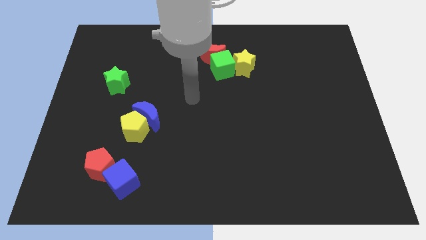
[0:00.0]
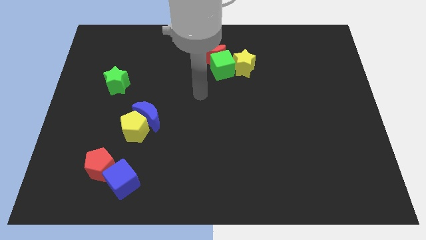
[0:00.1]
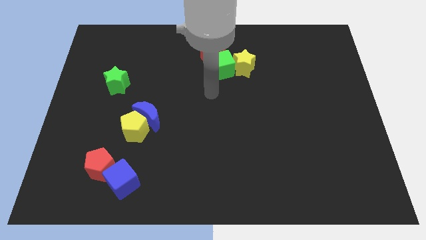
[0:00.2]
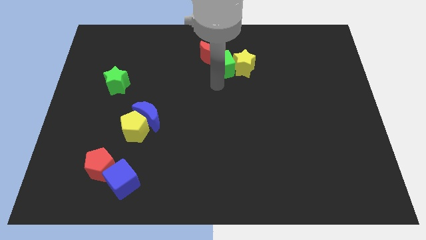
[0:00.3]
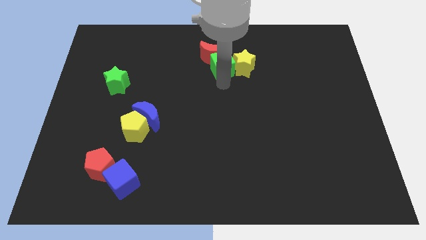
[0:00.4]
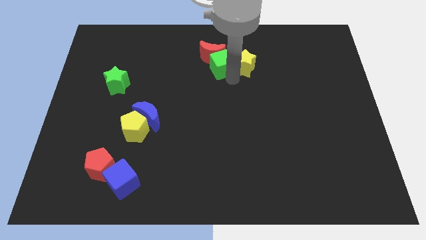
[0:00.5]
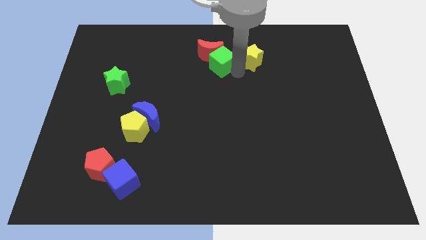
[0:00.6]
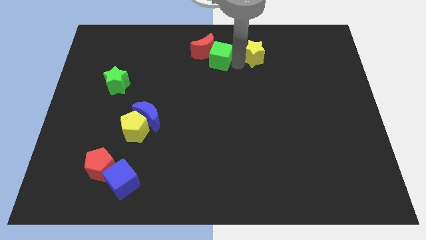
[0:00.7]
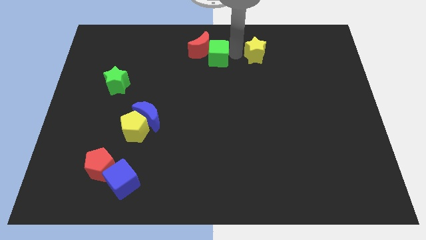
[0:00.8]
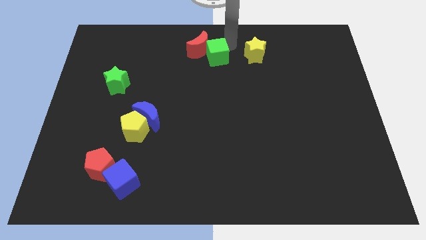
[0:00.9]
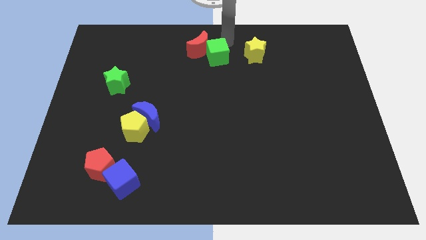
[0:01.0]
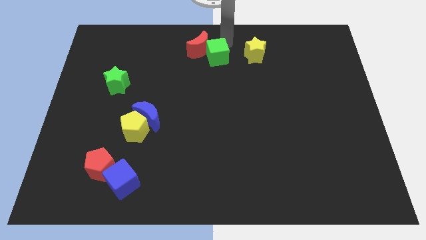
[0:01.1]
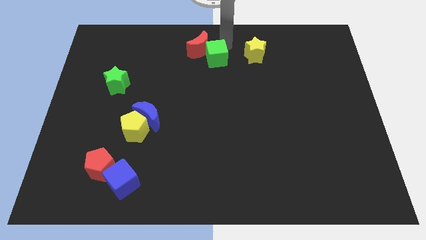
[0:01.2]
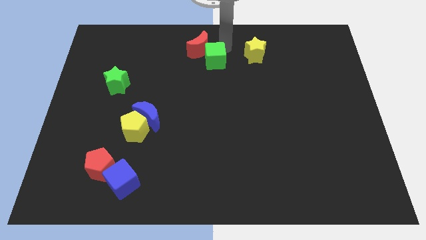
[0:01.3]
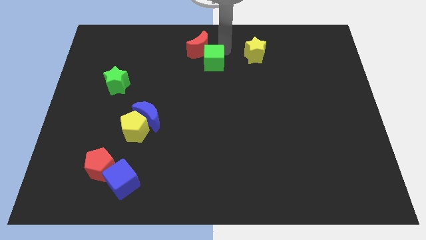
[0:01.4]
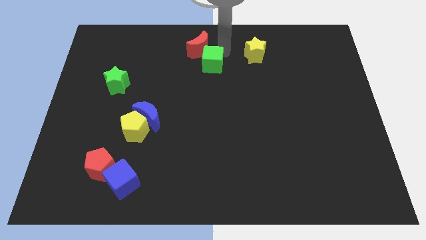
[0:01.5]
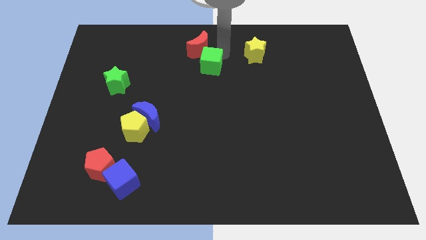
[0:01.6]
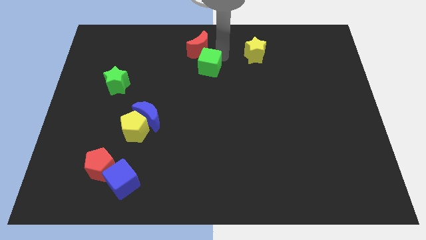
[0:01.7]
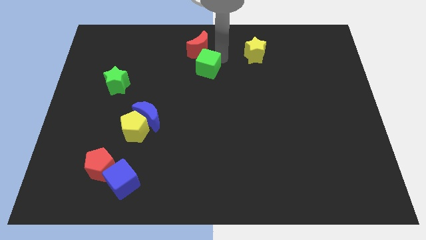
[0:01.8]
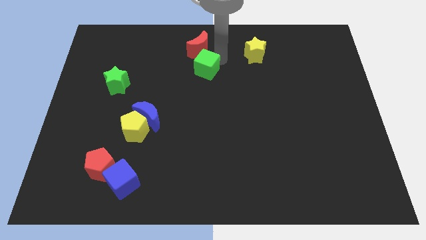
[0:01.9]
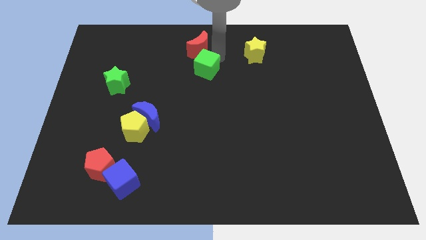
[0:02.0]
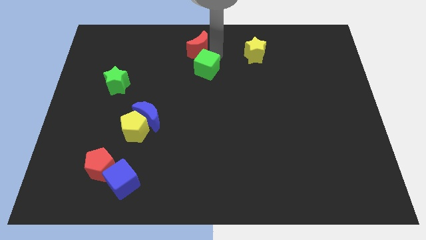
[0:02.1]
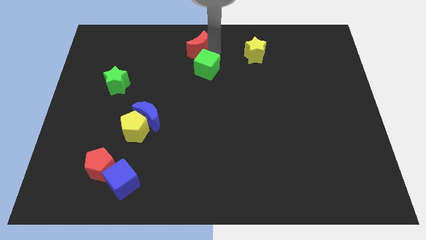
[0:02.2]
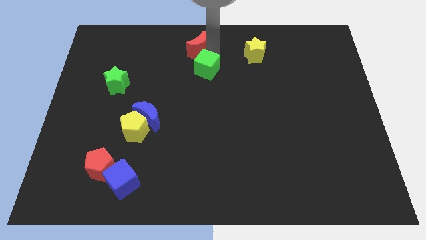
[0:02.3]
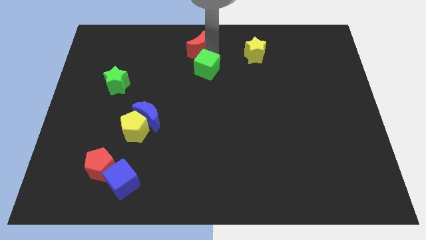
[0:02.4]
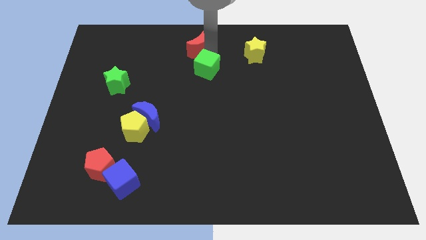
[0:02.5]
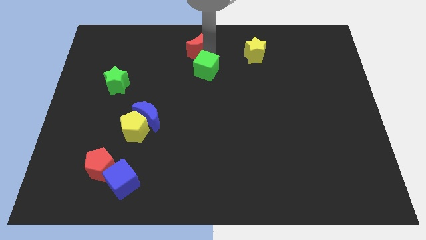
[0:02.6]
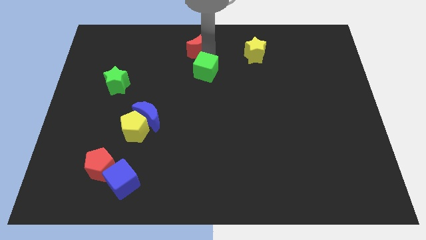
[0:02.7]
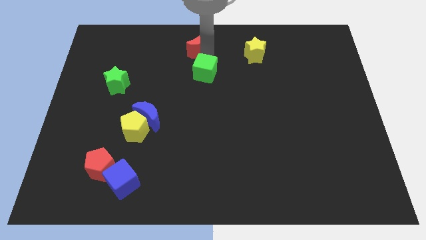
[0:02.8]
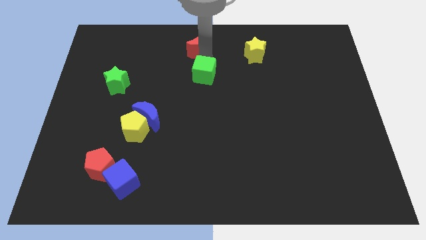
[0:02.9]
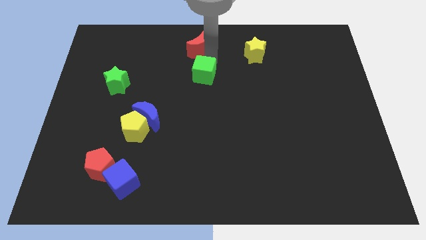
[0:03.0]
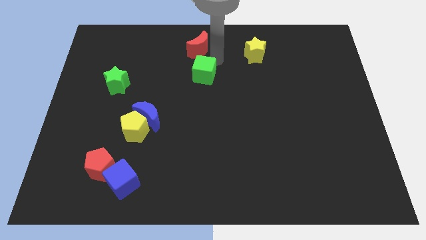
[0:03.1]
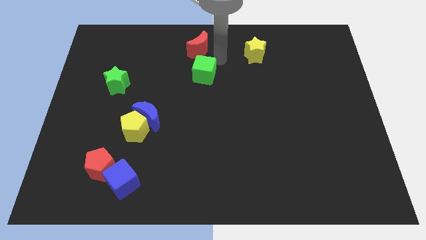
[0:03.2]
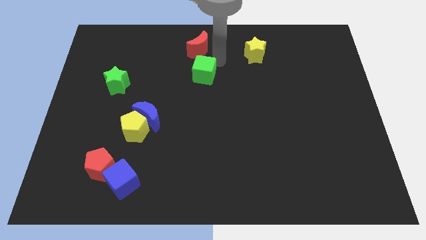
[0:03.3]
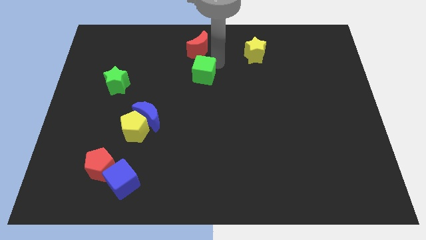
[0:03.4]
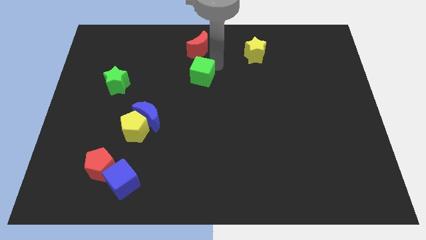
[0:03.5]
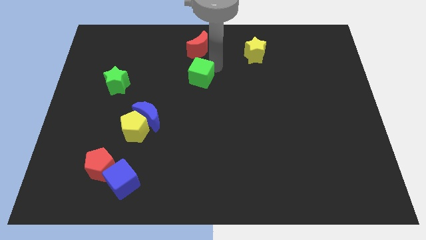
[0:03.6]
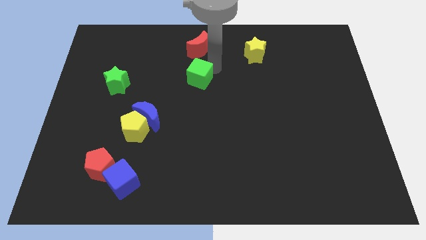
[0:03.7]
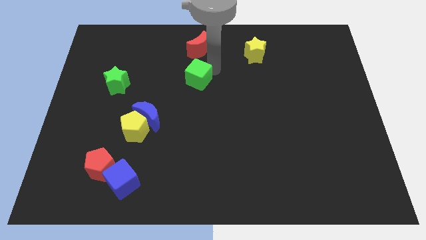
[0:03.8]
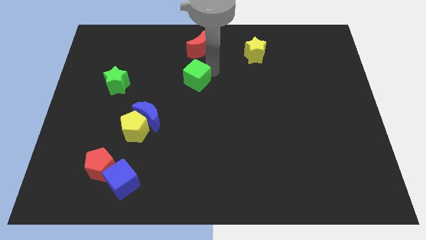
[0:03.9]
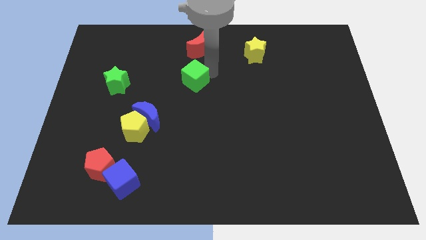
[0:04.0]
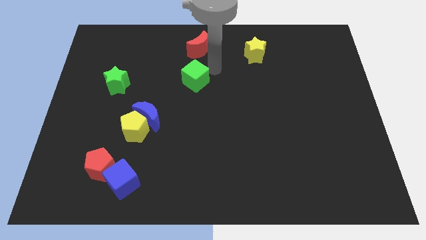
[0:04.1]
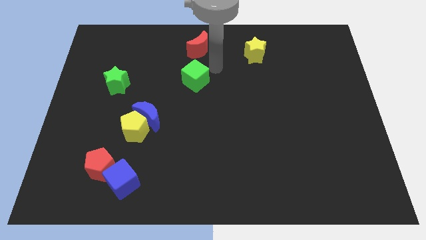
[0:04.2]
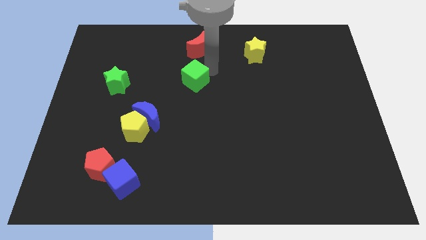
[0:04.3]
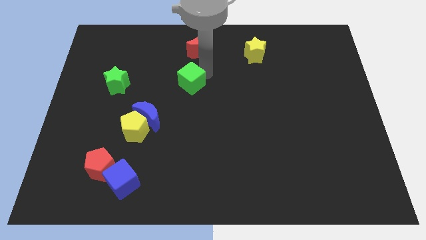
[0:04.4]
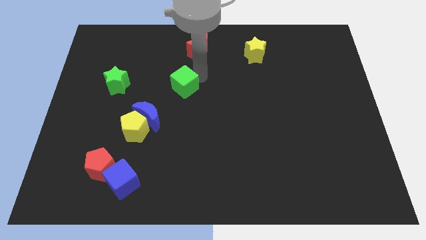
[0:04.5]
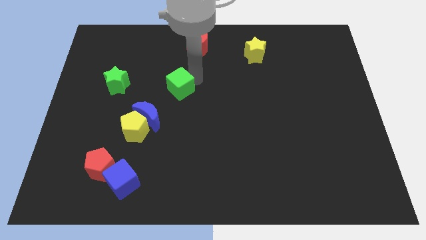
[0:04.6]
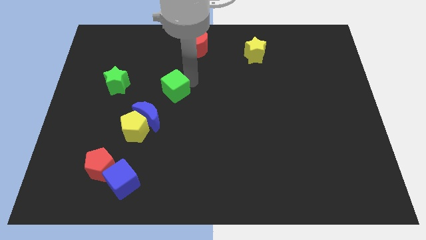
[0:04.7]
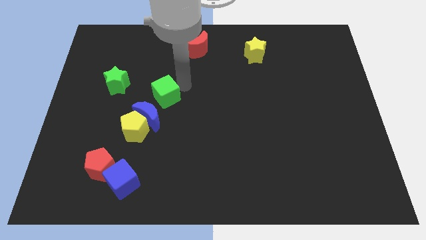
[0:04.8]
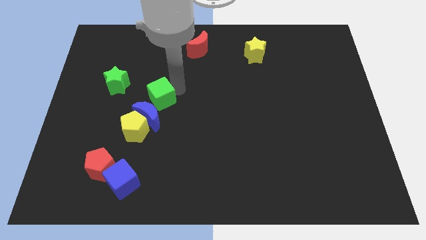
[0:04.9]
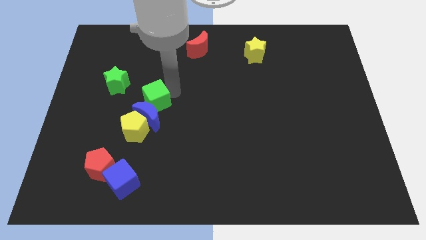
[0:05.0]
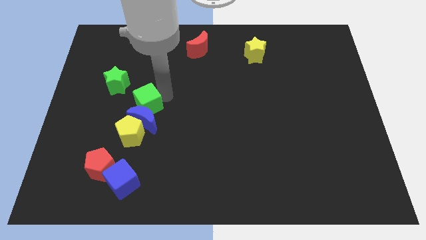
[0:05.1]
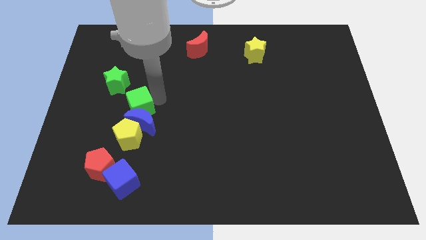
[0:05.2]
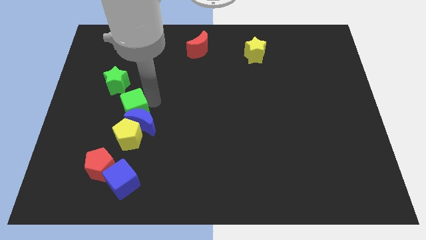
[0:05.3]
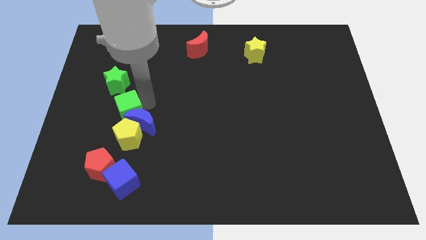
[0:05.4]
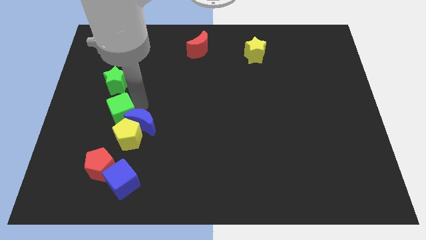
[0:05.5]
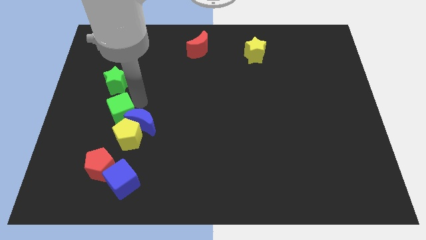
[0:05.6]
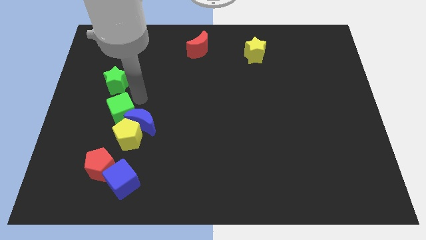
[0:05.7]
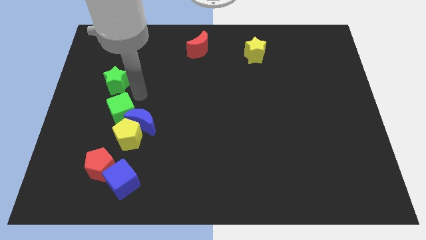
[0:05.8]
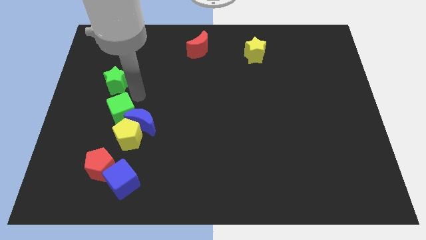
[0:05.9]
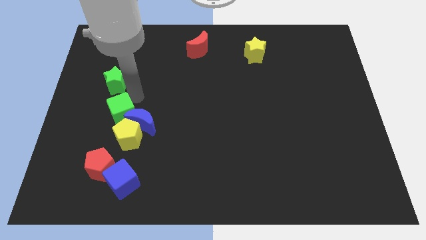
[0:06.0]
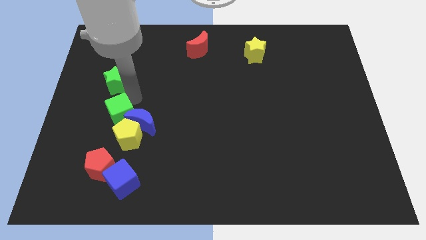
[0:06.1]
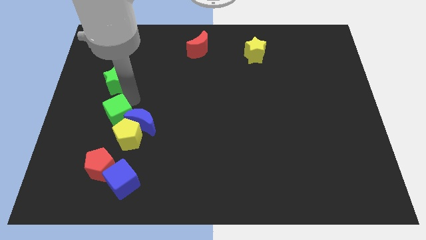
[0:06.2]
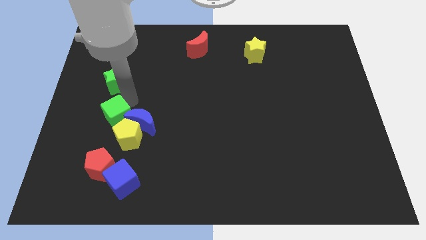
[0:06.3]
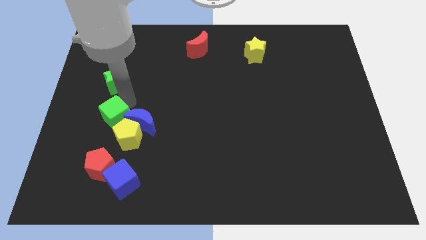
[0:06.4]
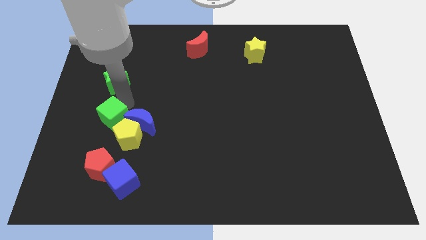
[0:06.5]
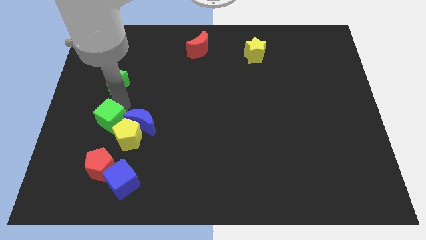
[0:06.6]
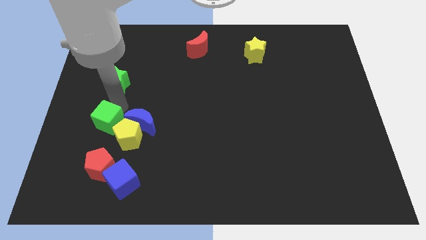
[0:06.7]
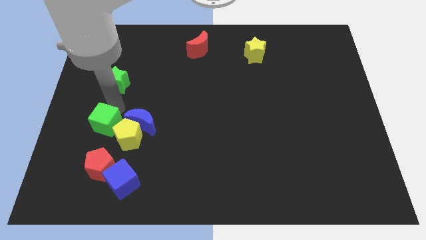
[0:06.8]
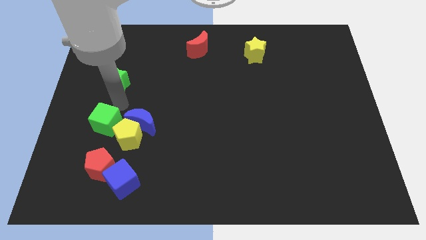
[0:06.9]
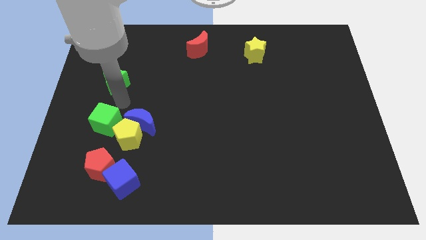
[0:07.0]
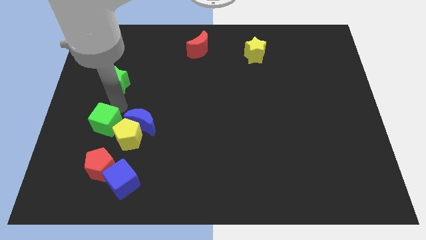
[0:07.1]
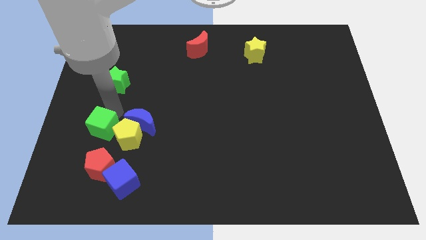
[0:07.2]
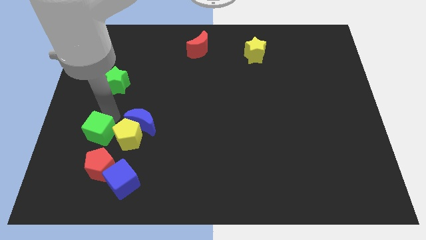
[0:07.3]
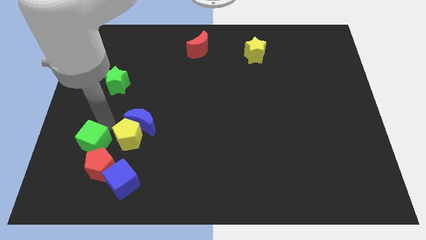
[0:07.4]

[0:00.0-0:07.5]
move the green cube to the top left side of the blue cube

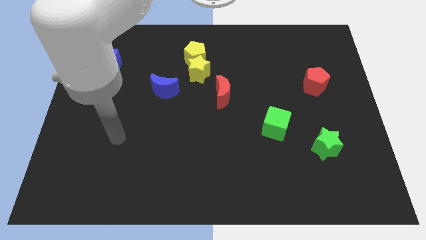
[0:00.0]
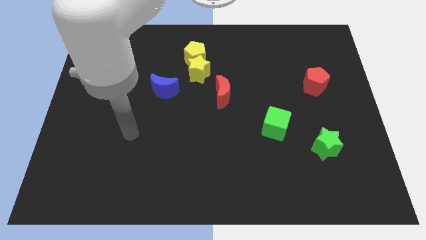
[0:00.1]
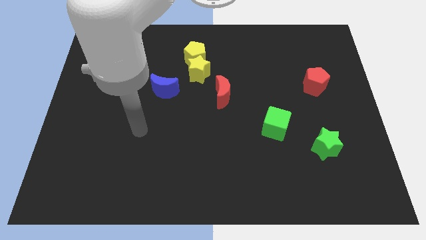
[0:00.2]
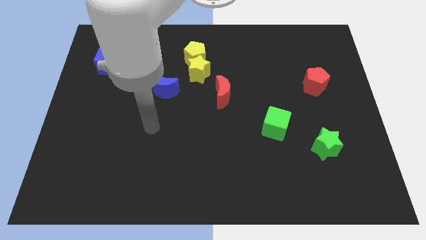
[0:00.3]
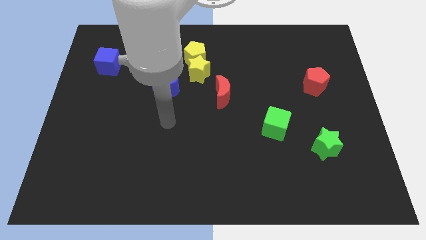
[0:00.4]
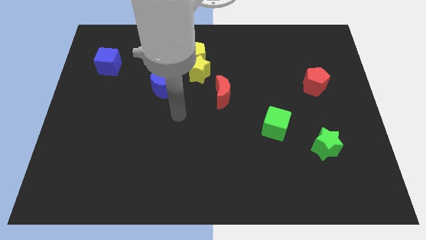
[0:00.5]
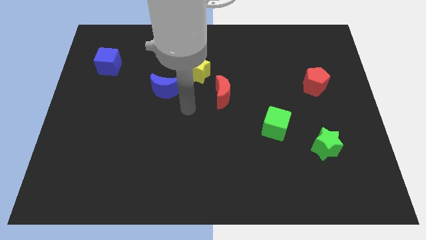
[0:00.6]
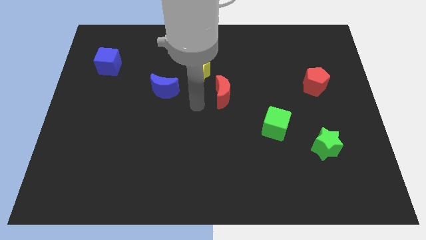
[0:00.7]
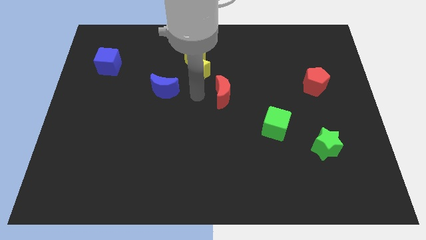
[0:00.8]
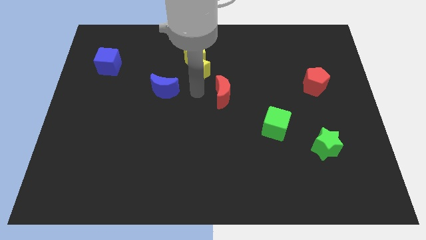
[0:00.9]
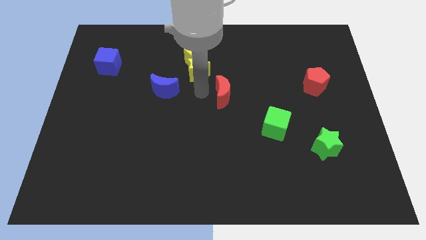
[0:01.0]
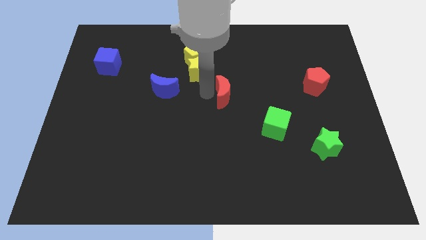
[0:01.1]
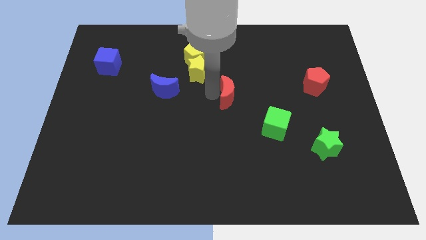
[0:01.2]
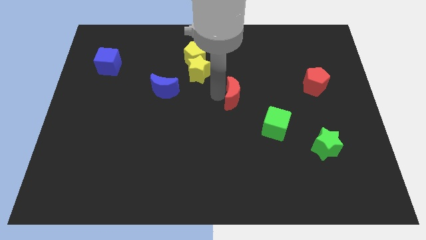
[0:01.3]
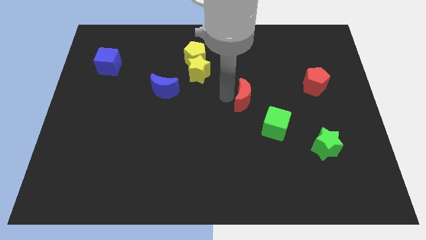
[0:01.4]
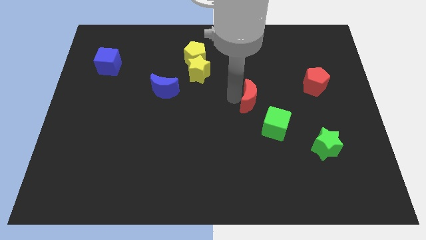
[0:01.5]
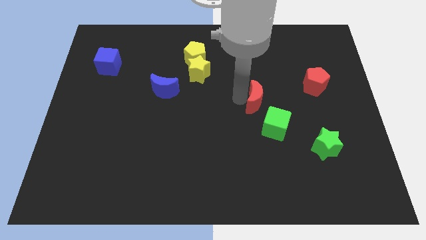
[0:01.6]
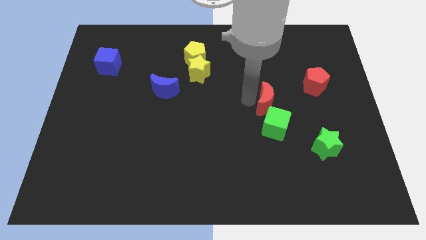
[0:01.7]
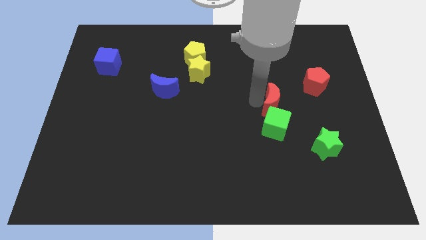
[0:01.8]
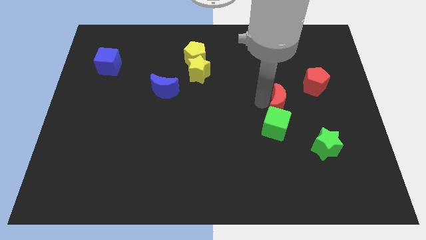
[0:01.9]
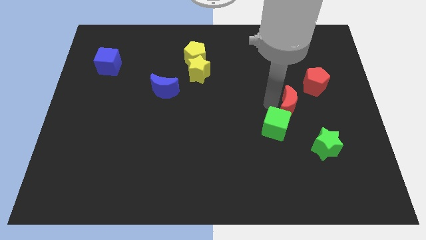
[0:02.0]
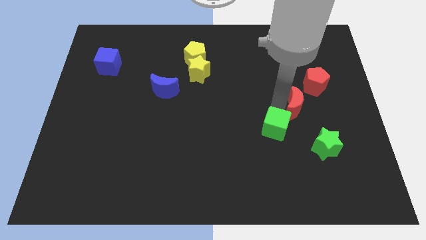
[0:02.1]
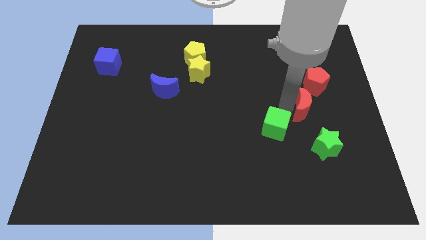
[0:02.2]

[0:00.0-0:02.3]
push the red moon to the top of the green star
